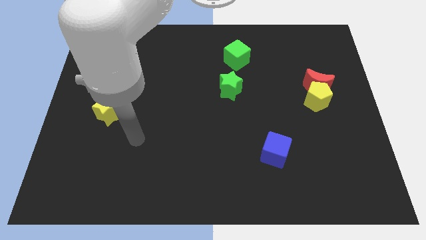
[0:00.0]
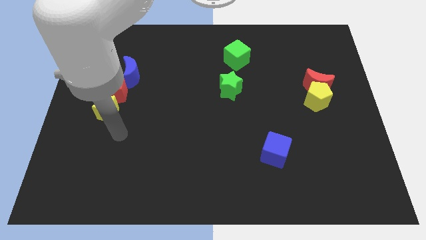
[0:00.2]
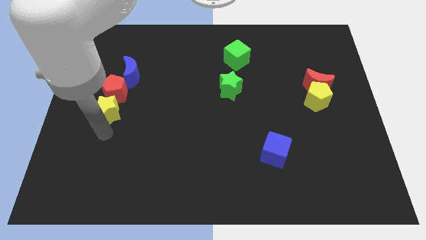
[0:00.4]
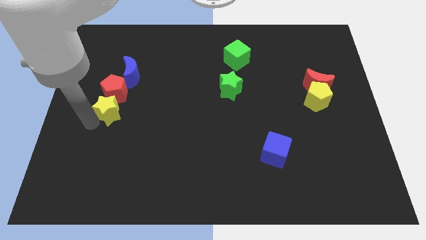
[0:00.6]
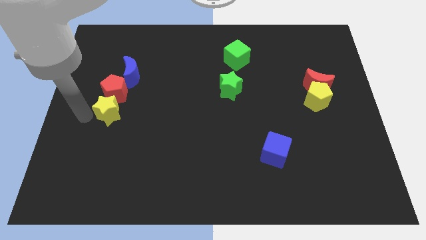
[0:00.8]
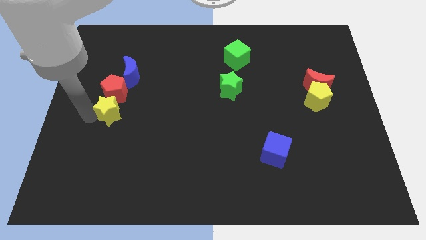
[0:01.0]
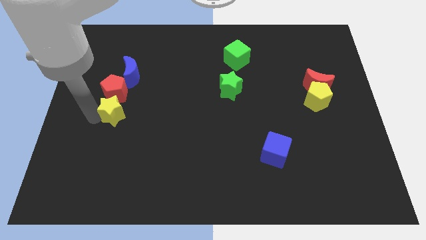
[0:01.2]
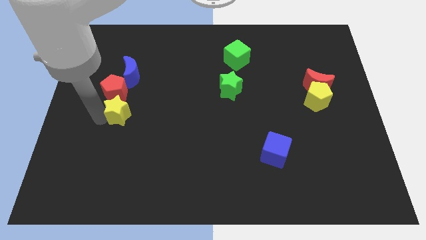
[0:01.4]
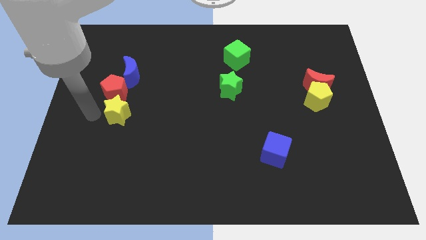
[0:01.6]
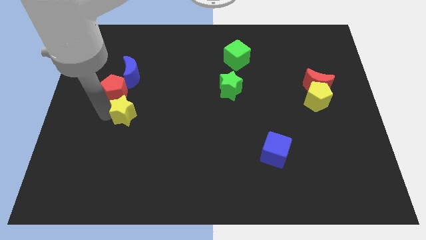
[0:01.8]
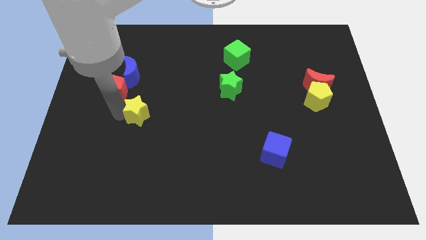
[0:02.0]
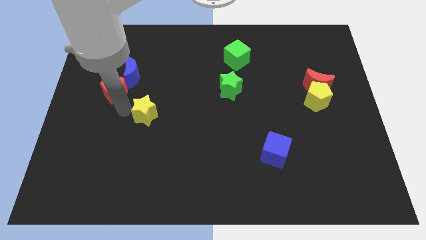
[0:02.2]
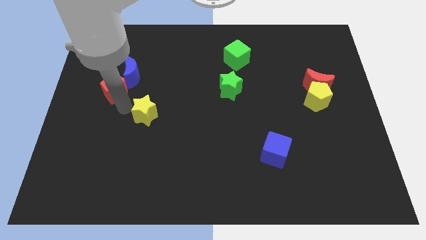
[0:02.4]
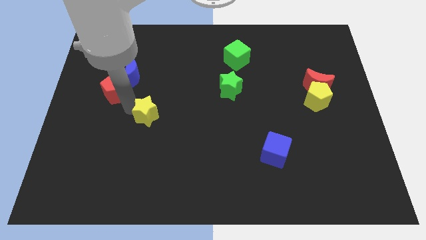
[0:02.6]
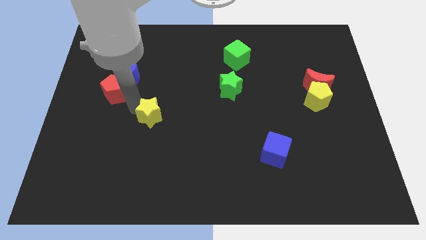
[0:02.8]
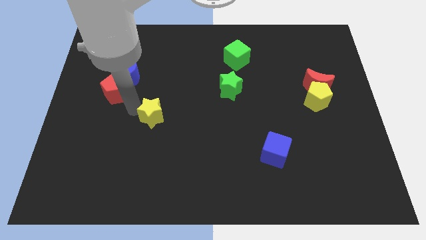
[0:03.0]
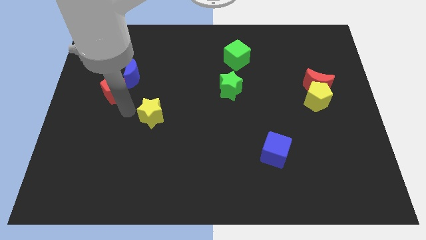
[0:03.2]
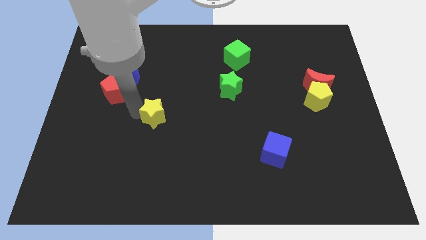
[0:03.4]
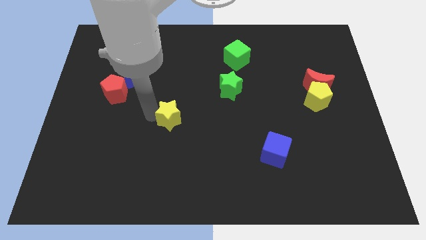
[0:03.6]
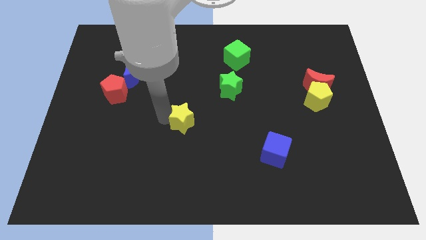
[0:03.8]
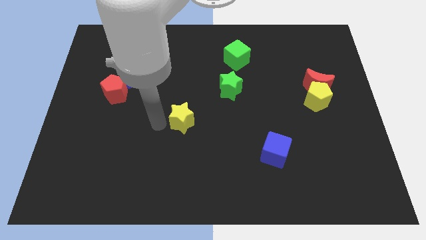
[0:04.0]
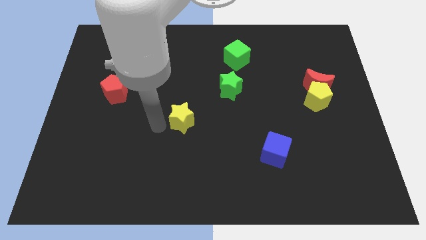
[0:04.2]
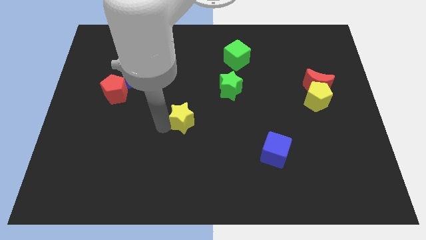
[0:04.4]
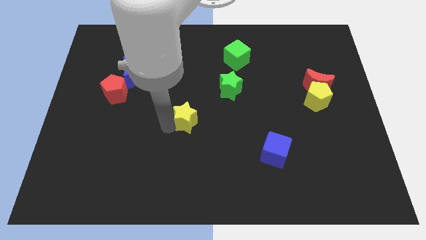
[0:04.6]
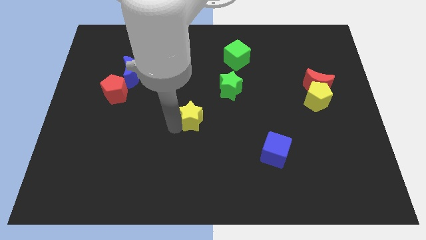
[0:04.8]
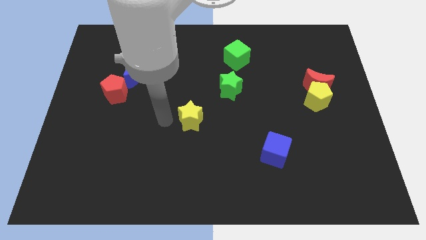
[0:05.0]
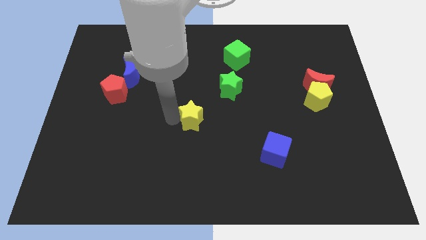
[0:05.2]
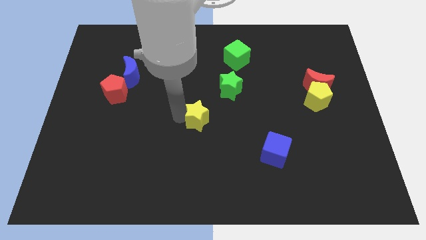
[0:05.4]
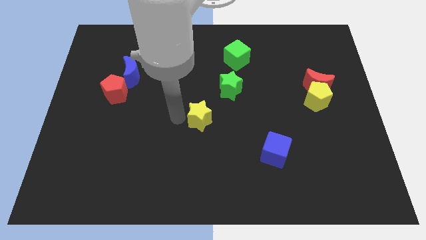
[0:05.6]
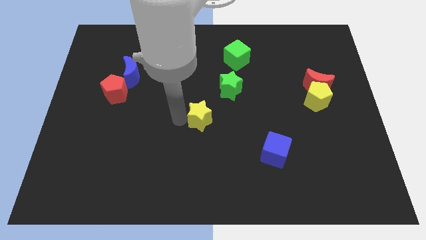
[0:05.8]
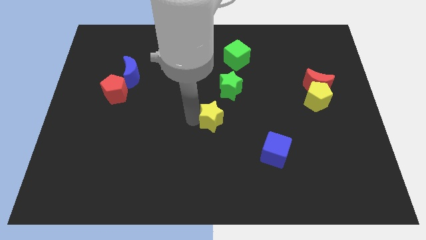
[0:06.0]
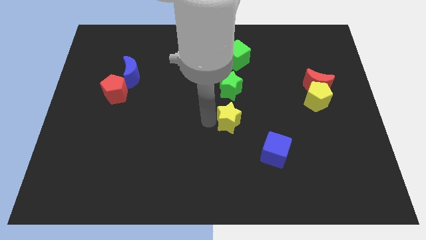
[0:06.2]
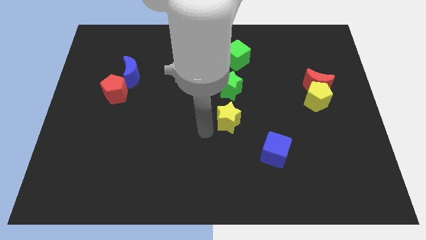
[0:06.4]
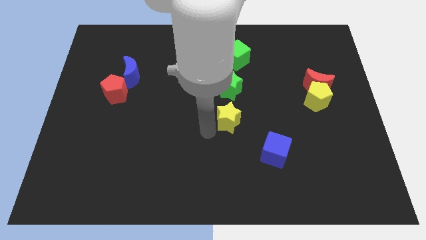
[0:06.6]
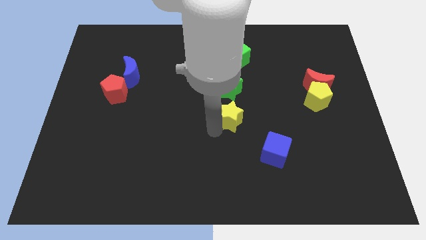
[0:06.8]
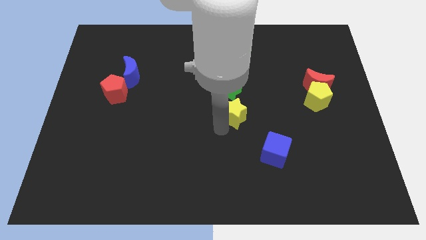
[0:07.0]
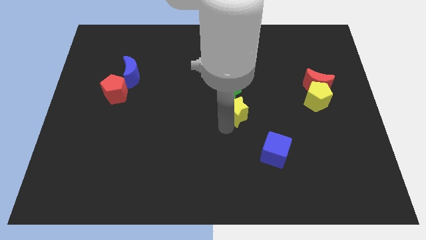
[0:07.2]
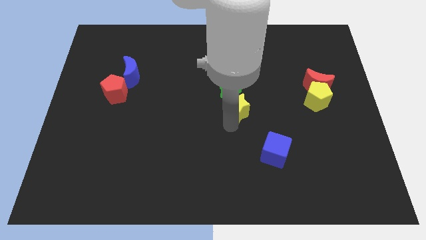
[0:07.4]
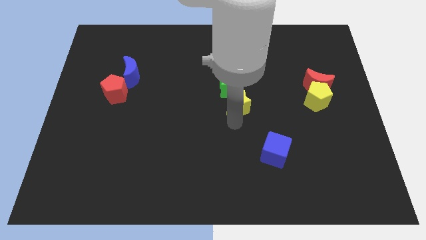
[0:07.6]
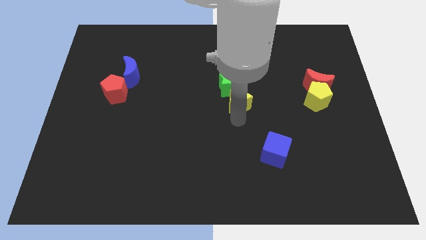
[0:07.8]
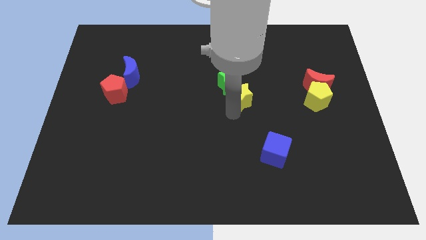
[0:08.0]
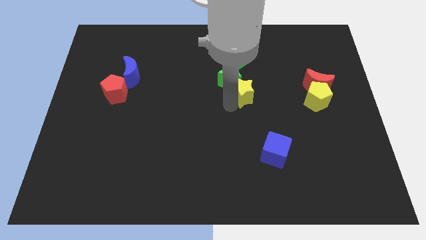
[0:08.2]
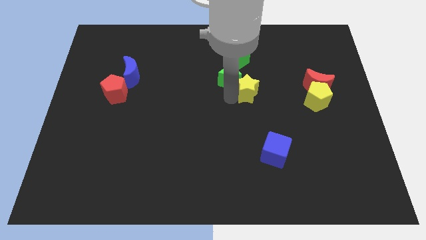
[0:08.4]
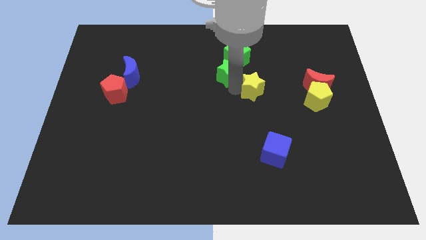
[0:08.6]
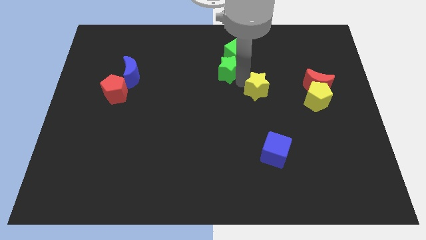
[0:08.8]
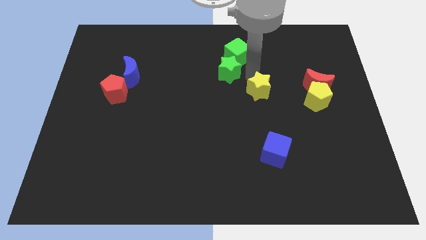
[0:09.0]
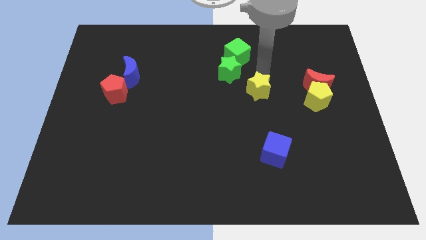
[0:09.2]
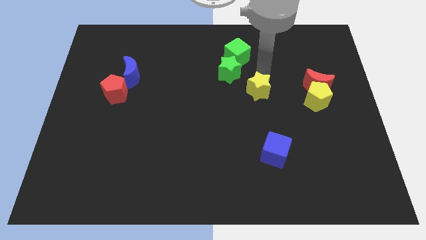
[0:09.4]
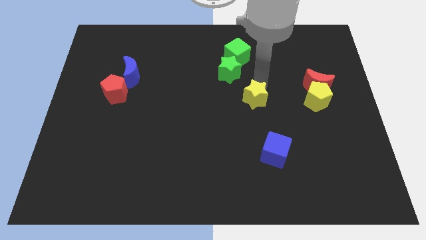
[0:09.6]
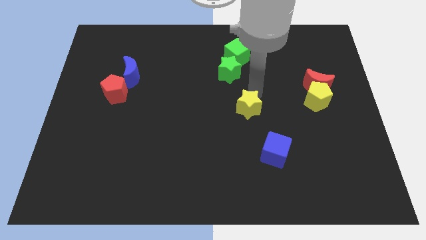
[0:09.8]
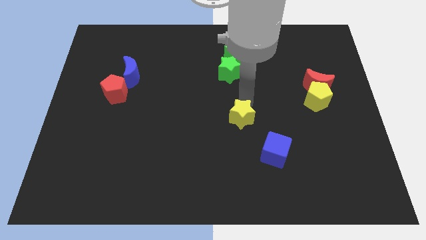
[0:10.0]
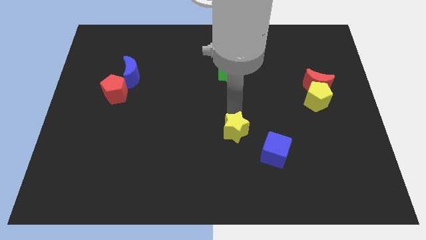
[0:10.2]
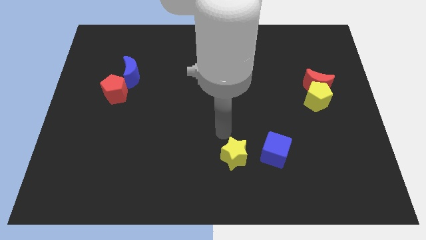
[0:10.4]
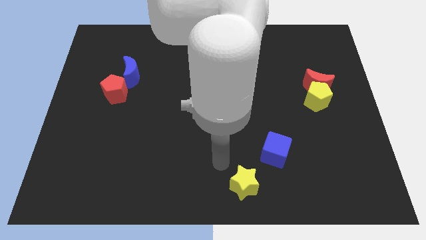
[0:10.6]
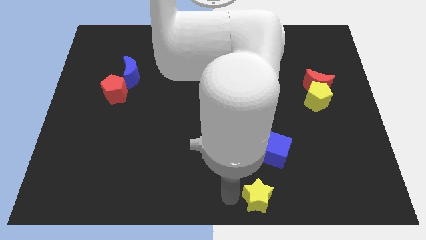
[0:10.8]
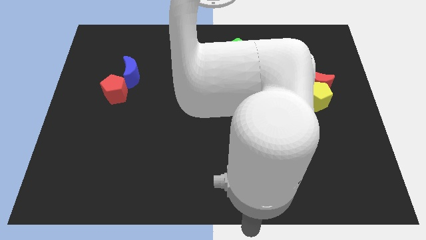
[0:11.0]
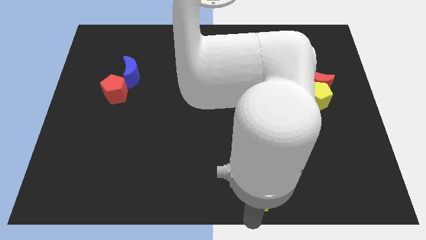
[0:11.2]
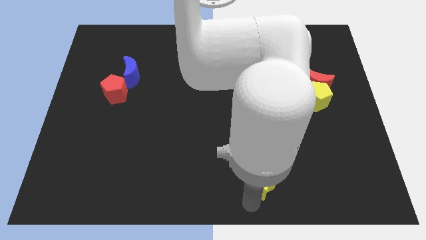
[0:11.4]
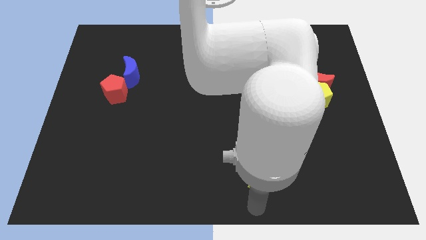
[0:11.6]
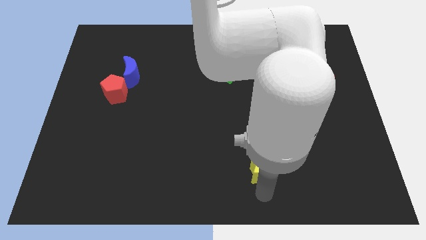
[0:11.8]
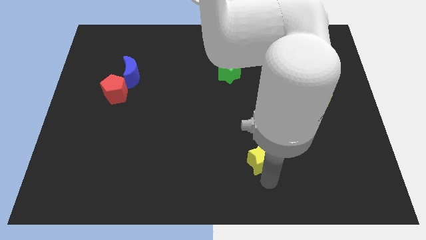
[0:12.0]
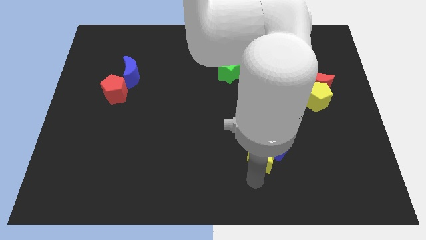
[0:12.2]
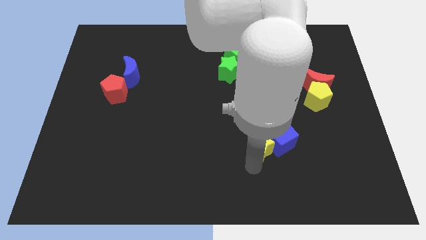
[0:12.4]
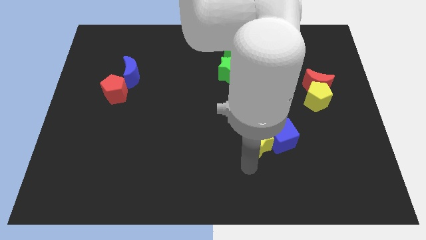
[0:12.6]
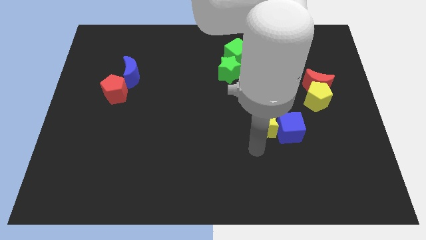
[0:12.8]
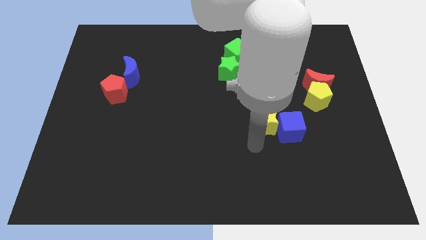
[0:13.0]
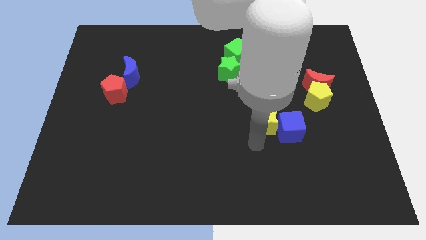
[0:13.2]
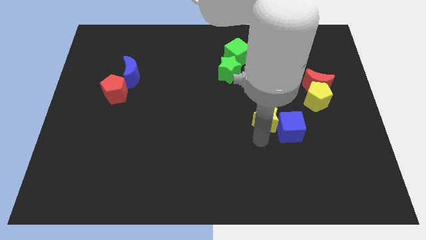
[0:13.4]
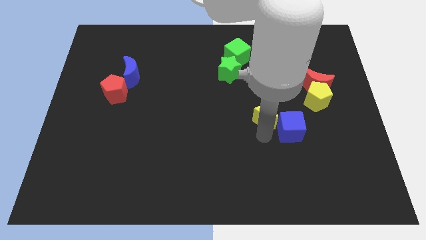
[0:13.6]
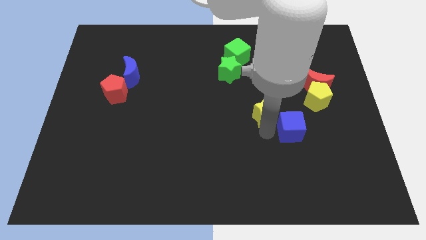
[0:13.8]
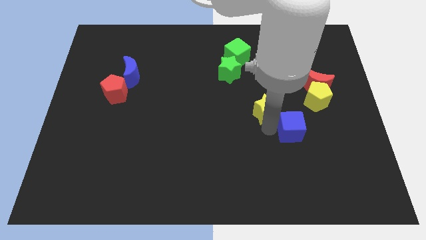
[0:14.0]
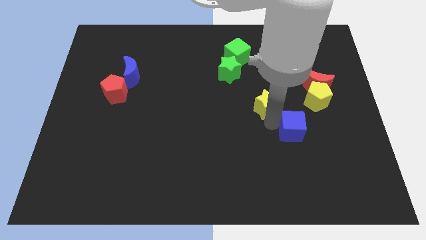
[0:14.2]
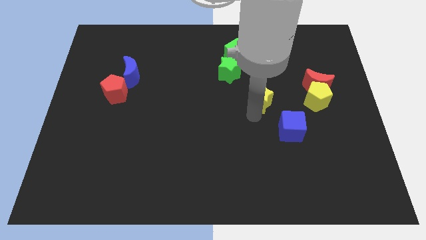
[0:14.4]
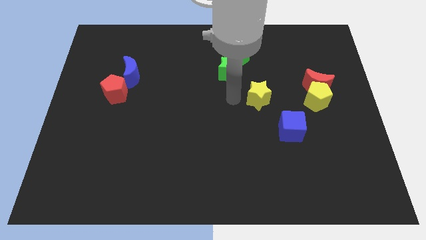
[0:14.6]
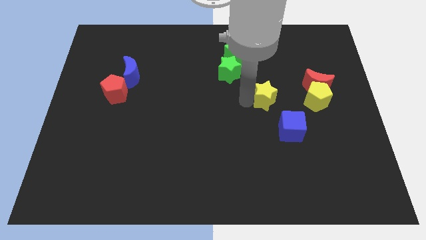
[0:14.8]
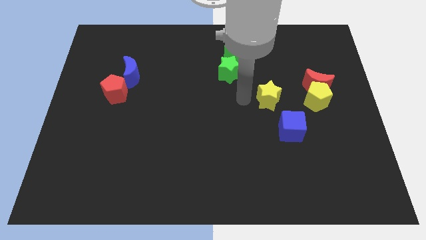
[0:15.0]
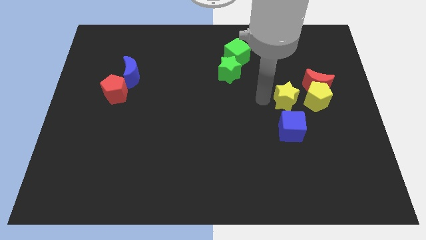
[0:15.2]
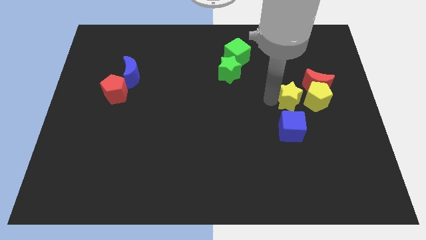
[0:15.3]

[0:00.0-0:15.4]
slide the yellow star towards the yellow pentagon
